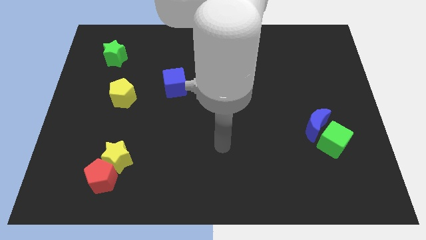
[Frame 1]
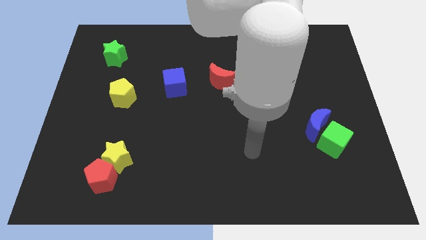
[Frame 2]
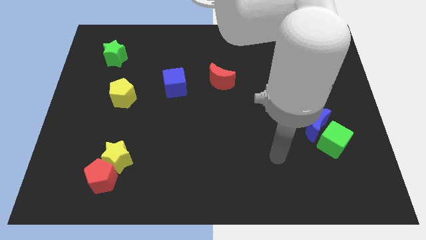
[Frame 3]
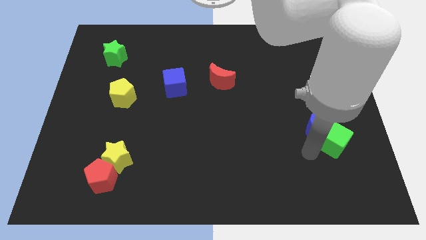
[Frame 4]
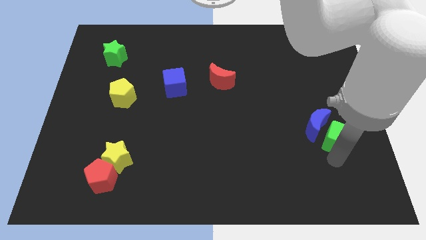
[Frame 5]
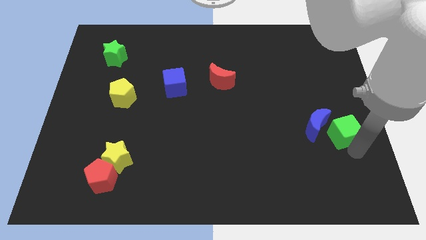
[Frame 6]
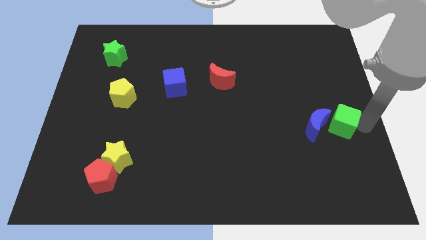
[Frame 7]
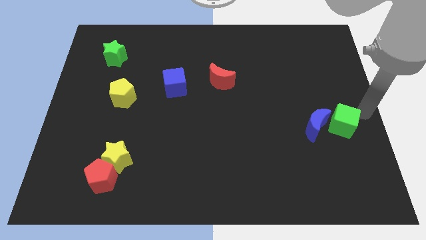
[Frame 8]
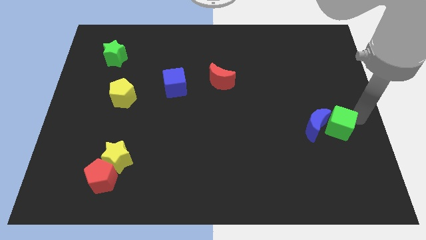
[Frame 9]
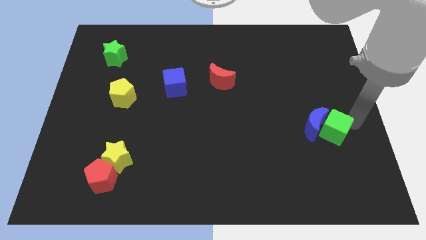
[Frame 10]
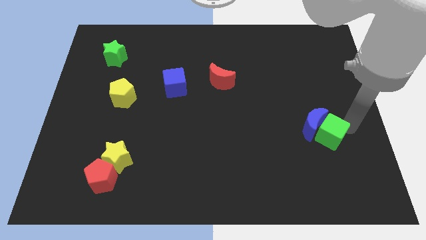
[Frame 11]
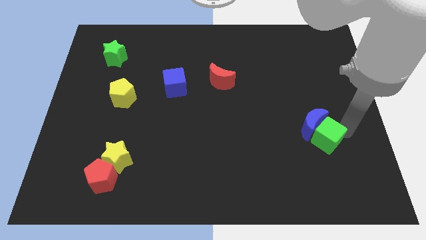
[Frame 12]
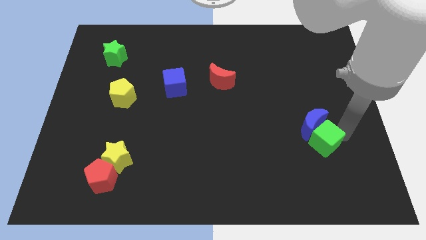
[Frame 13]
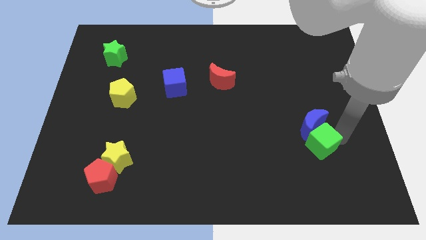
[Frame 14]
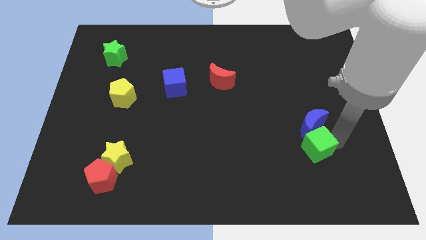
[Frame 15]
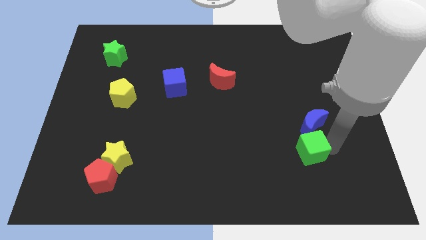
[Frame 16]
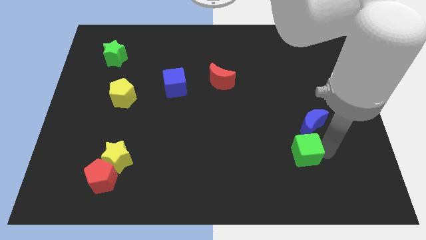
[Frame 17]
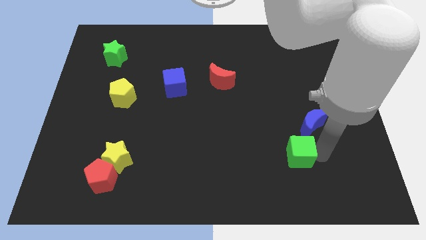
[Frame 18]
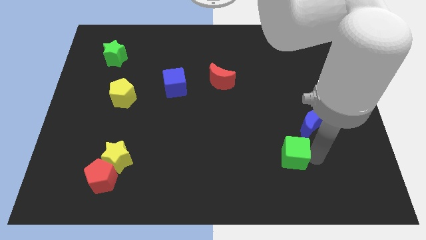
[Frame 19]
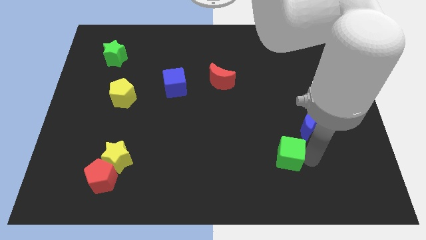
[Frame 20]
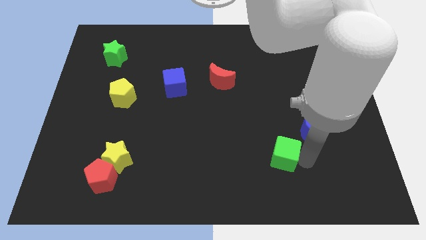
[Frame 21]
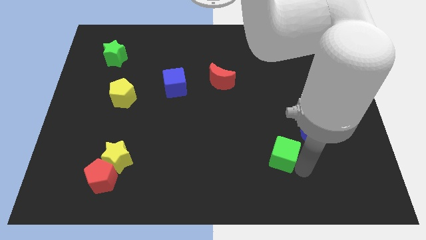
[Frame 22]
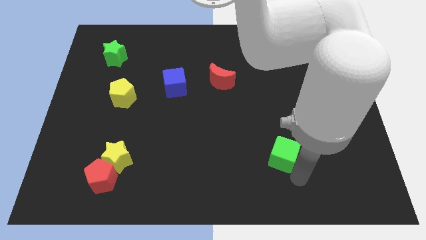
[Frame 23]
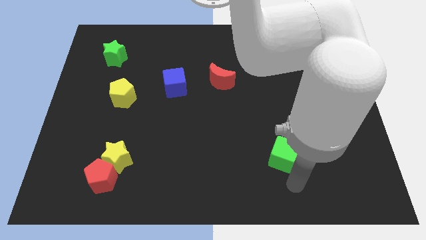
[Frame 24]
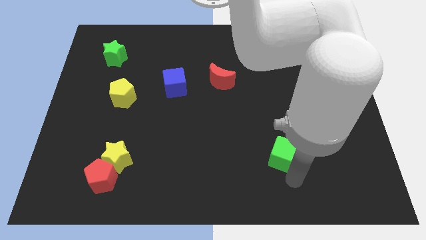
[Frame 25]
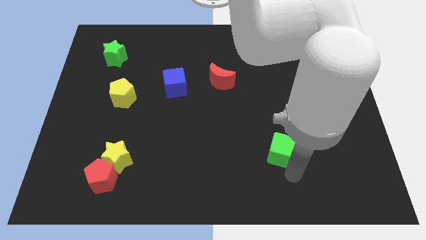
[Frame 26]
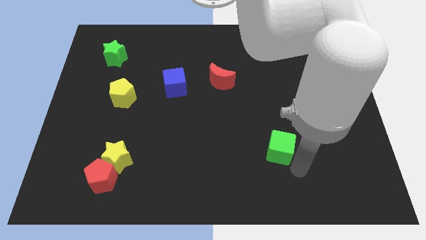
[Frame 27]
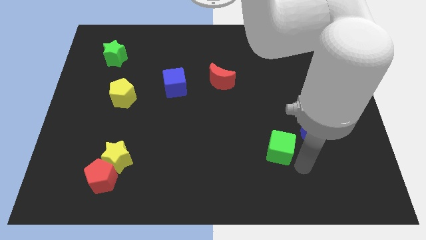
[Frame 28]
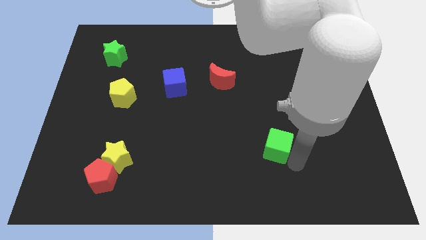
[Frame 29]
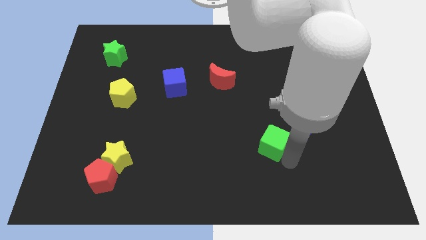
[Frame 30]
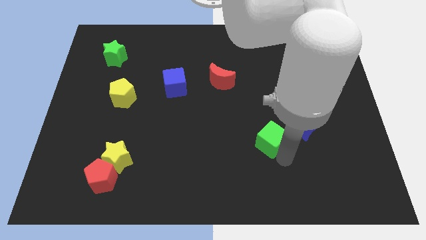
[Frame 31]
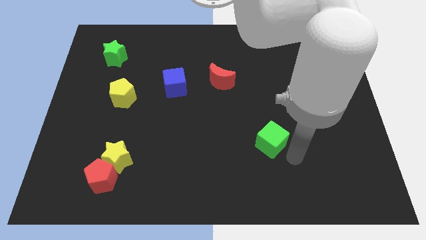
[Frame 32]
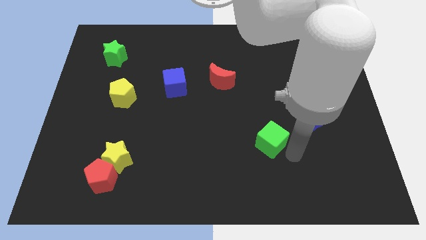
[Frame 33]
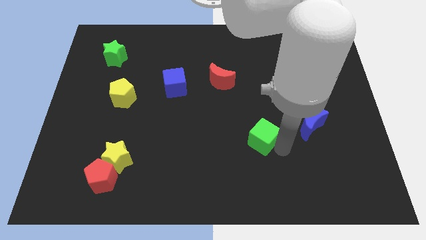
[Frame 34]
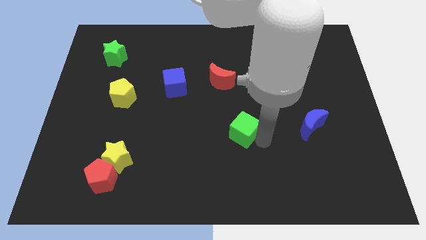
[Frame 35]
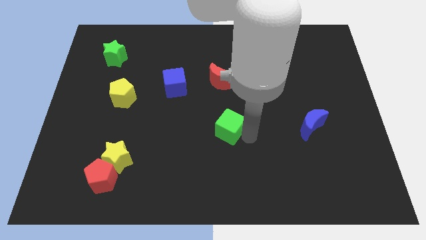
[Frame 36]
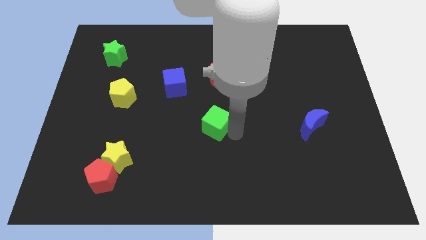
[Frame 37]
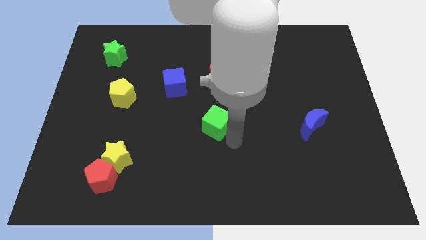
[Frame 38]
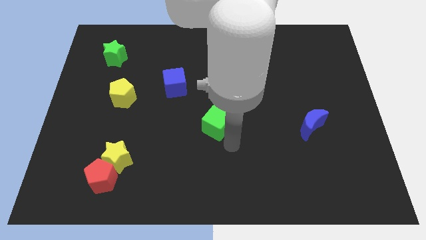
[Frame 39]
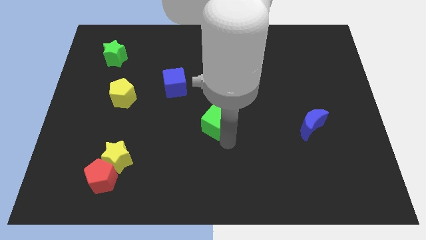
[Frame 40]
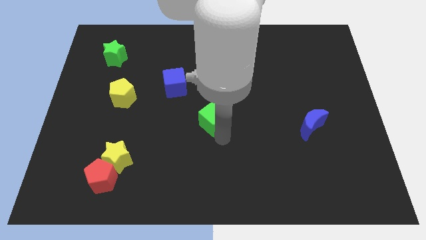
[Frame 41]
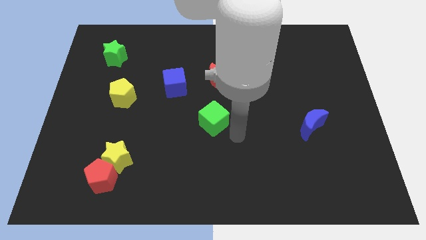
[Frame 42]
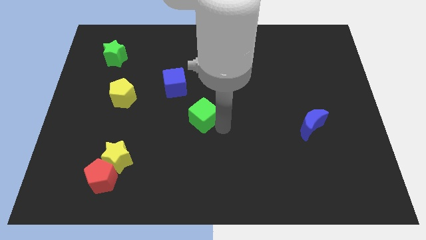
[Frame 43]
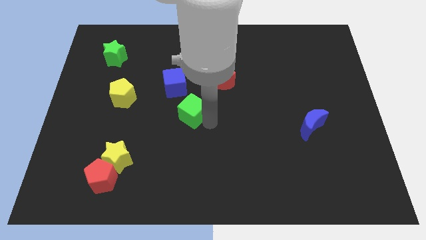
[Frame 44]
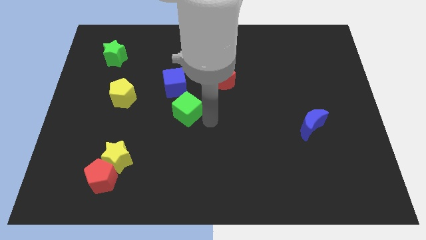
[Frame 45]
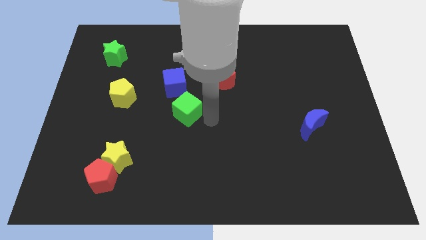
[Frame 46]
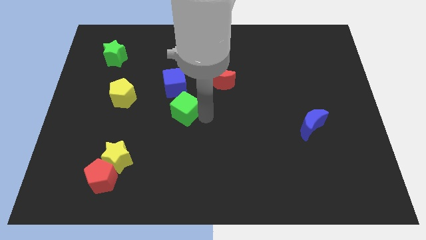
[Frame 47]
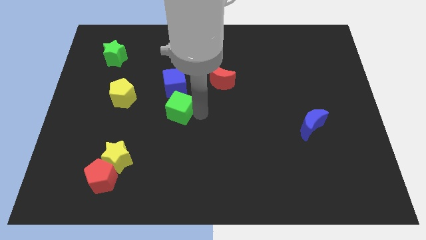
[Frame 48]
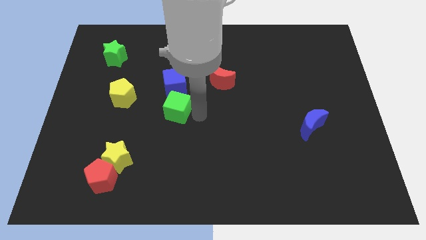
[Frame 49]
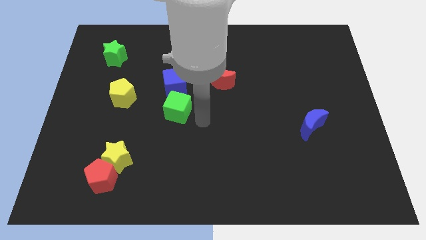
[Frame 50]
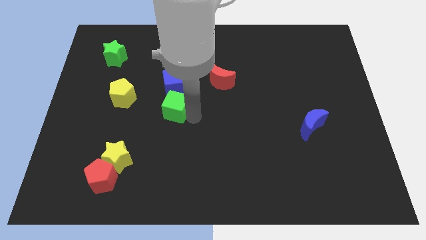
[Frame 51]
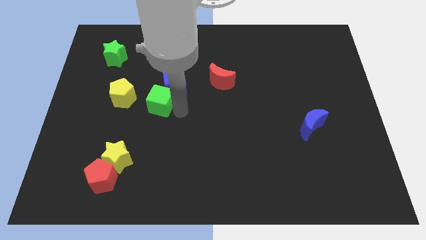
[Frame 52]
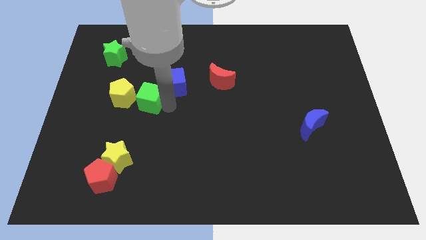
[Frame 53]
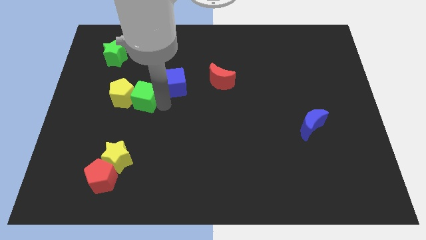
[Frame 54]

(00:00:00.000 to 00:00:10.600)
push the green cube to the yellow pentagon

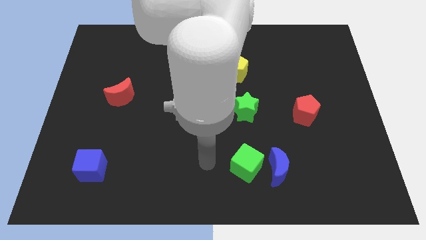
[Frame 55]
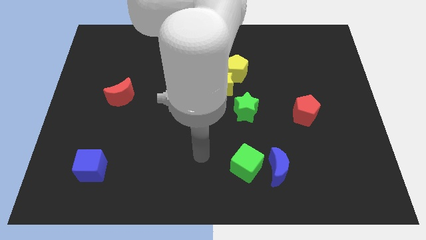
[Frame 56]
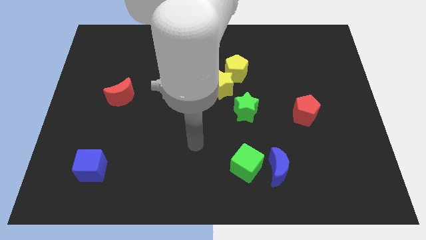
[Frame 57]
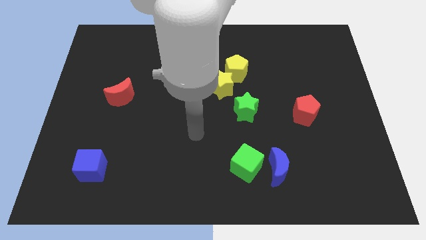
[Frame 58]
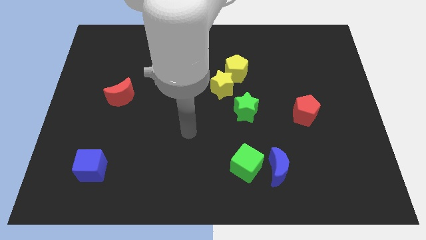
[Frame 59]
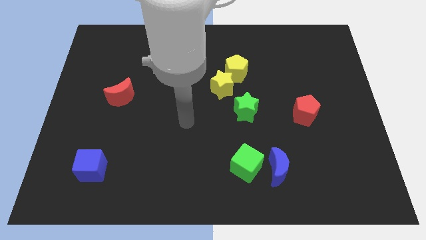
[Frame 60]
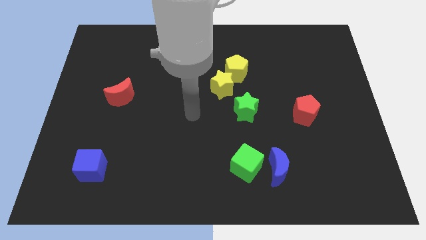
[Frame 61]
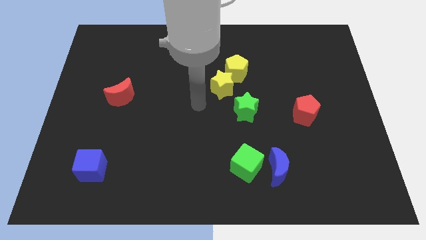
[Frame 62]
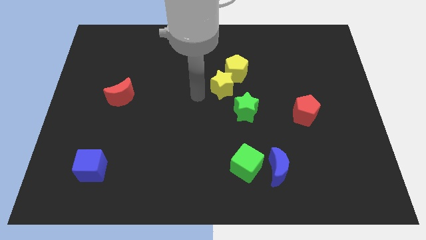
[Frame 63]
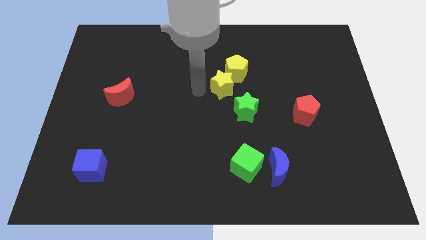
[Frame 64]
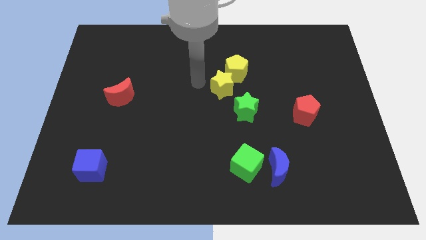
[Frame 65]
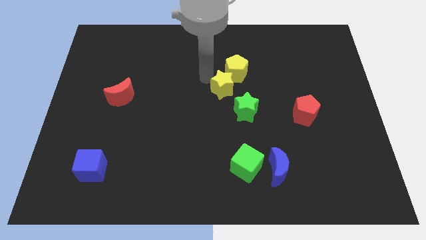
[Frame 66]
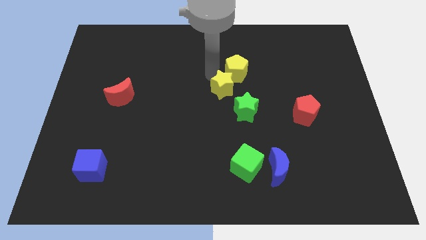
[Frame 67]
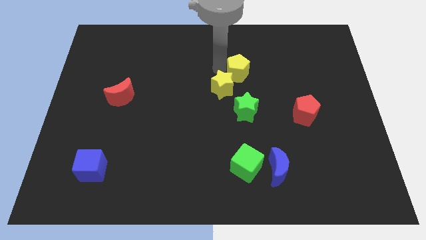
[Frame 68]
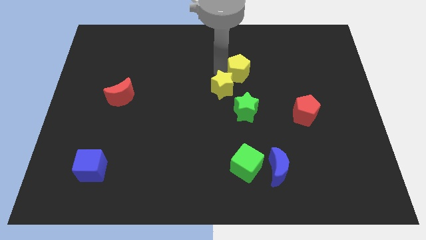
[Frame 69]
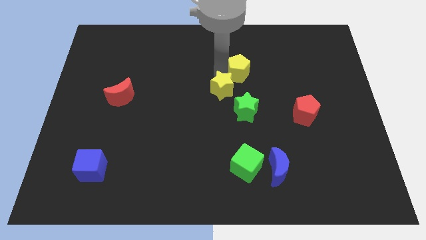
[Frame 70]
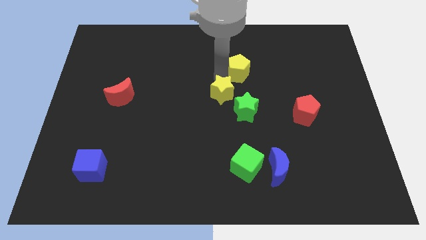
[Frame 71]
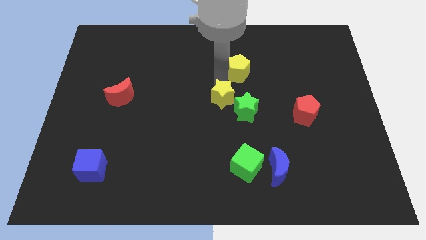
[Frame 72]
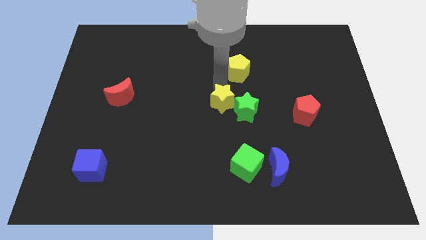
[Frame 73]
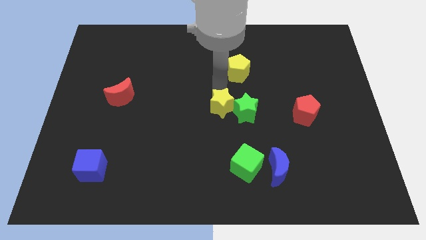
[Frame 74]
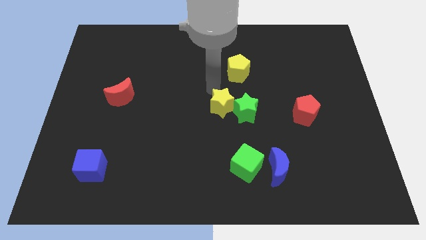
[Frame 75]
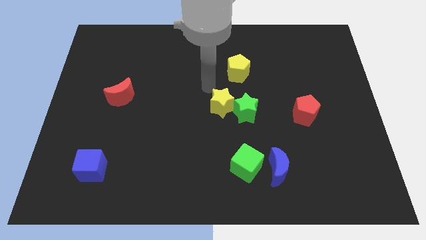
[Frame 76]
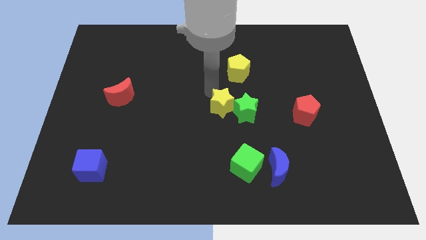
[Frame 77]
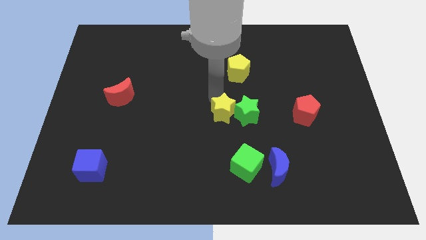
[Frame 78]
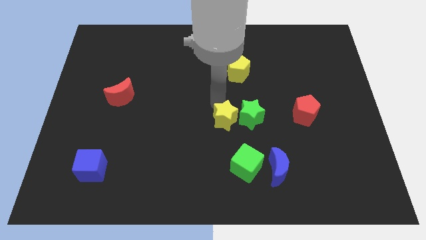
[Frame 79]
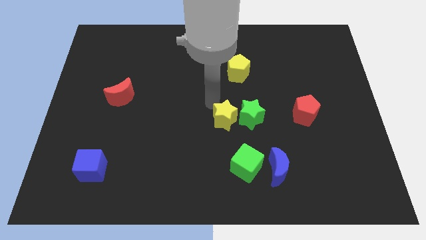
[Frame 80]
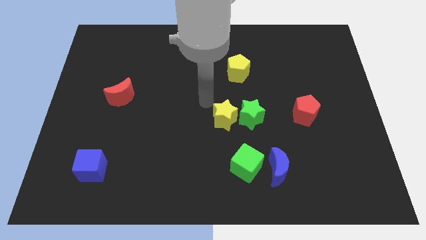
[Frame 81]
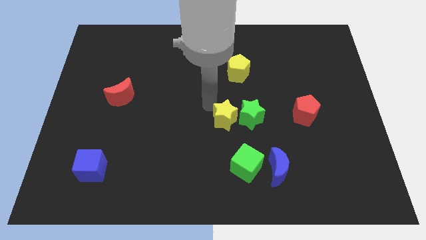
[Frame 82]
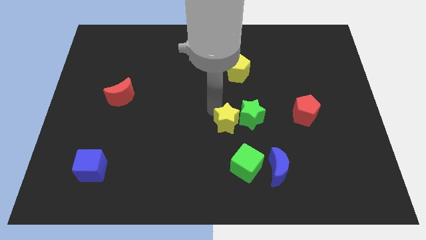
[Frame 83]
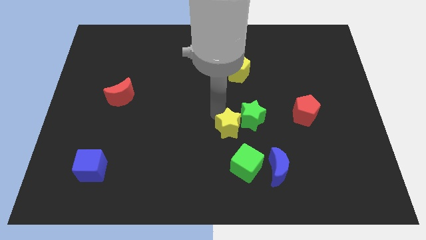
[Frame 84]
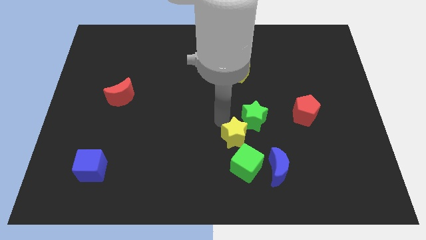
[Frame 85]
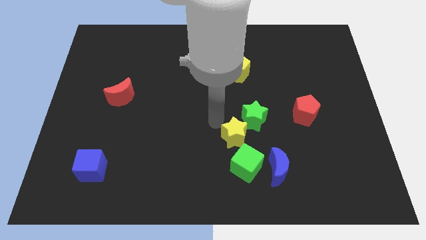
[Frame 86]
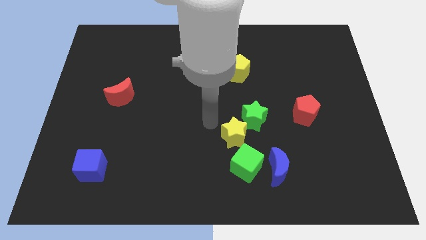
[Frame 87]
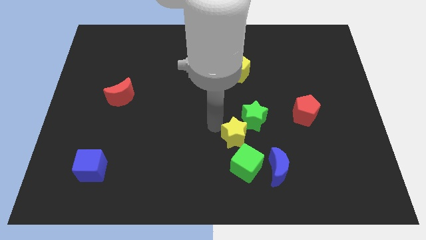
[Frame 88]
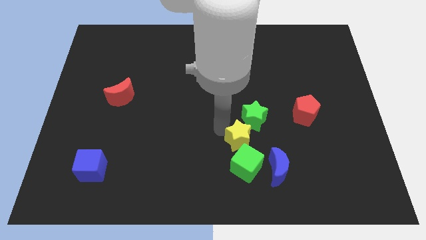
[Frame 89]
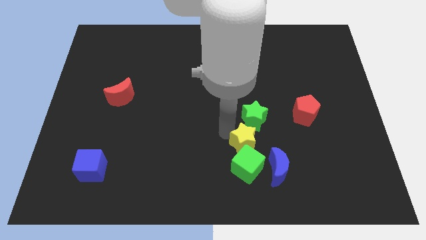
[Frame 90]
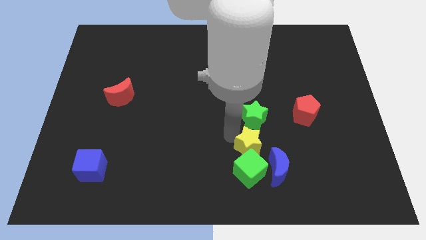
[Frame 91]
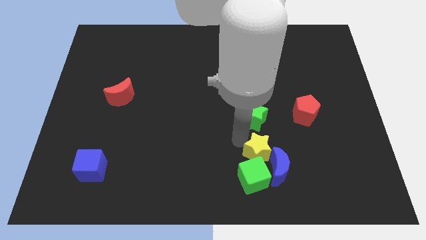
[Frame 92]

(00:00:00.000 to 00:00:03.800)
slide the yellow star to the blue moon
